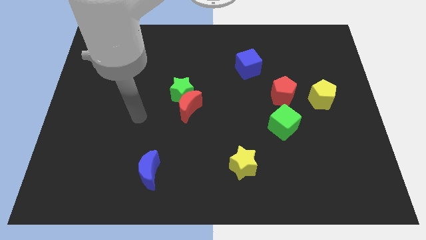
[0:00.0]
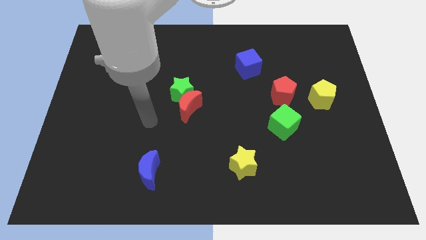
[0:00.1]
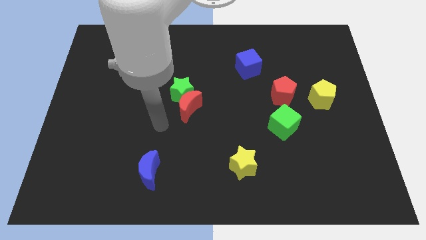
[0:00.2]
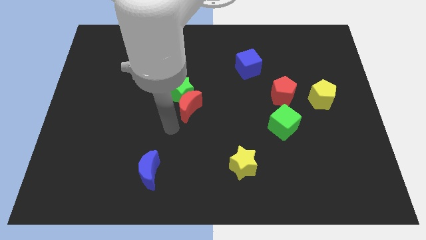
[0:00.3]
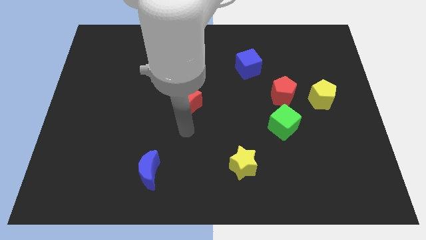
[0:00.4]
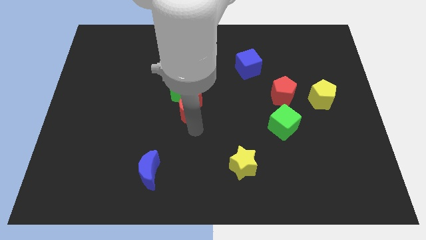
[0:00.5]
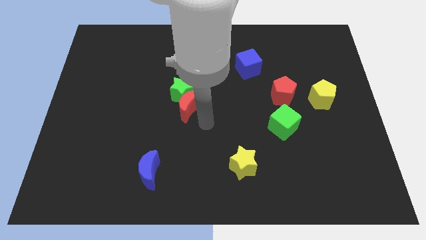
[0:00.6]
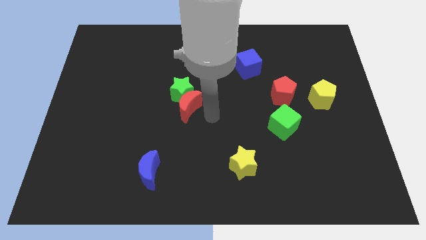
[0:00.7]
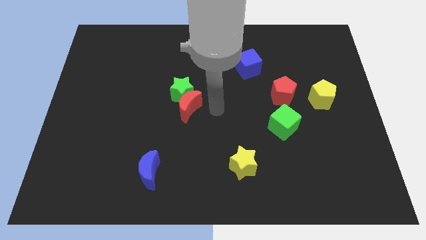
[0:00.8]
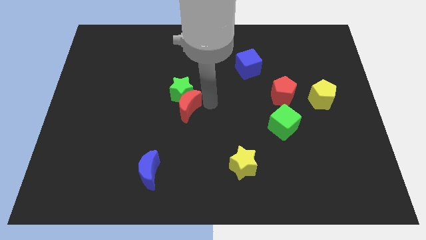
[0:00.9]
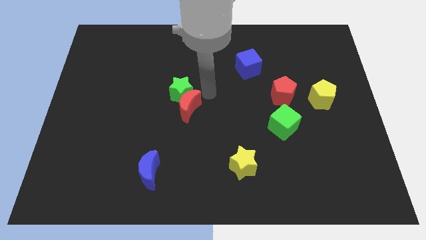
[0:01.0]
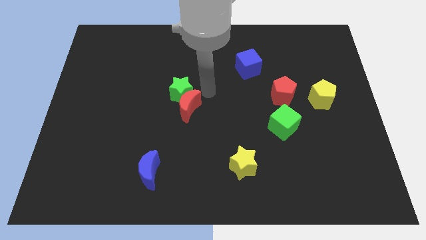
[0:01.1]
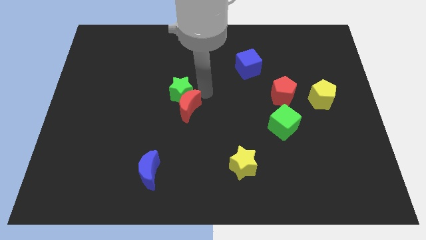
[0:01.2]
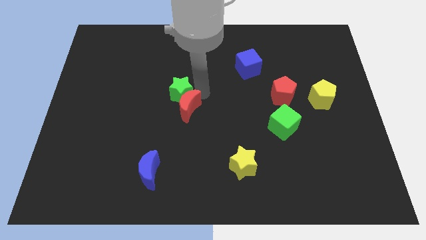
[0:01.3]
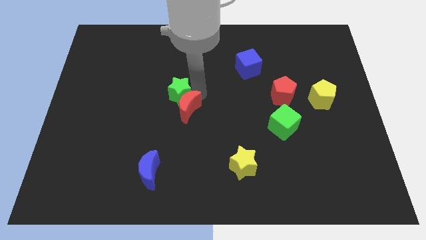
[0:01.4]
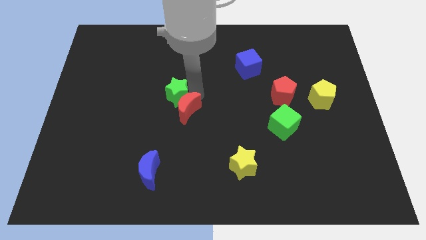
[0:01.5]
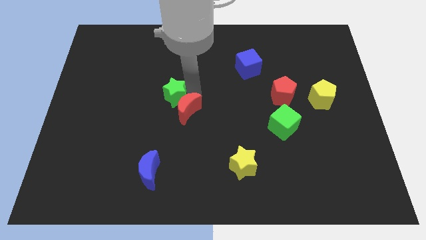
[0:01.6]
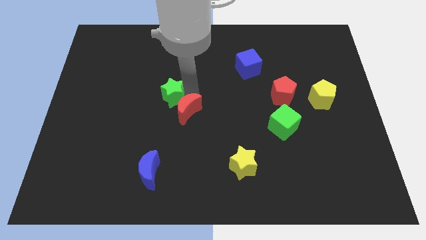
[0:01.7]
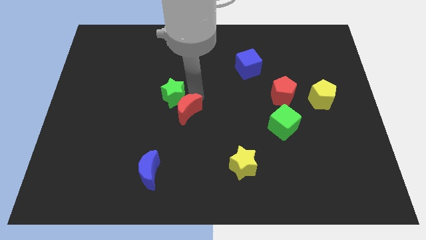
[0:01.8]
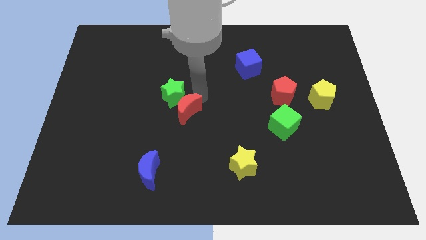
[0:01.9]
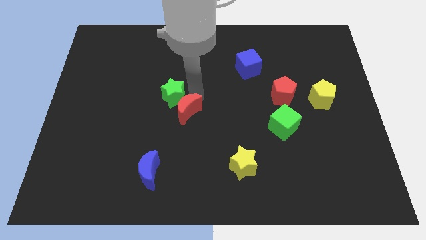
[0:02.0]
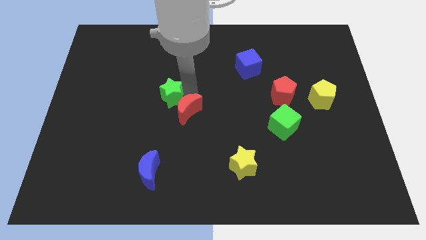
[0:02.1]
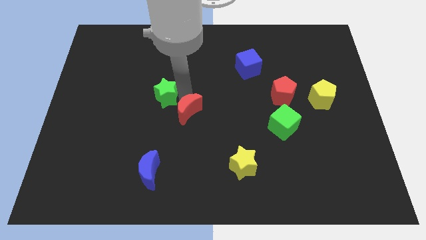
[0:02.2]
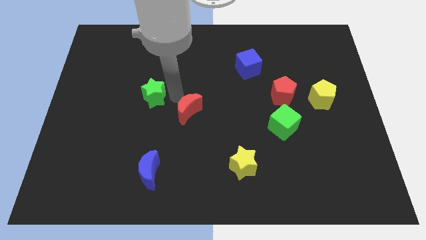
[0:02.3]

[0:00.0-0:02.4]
slide the green star slightly left

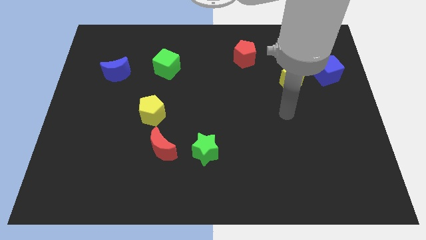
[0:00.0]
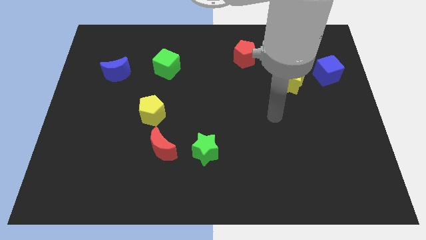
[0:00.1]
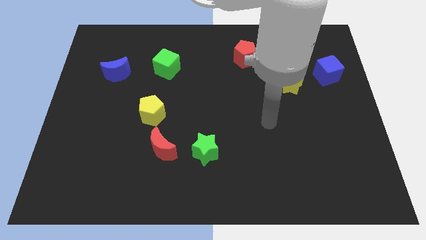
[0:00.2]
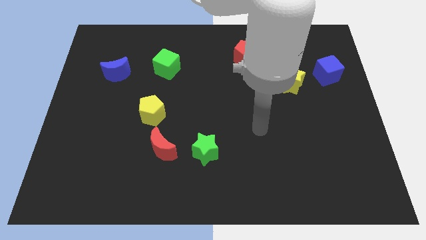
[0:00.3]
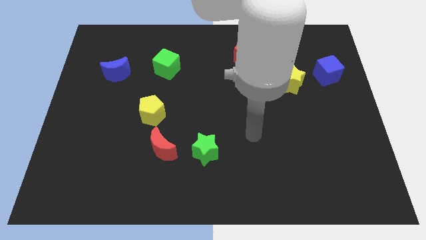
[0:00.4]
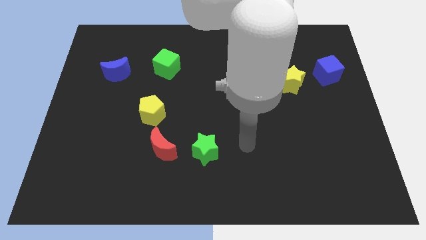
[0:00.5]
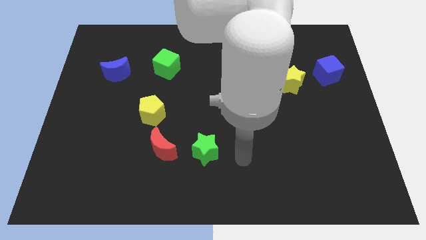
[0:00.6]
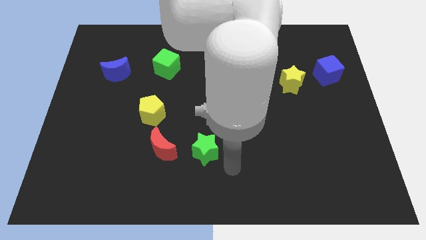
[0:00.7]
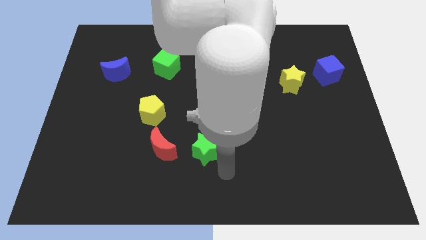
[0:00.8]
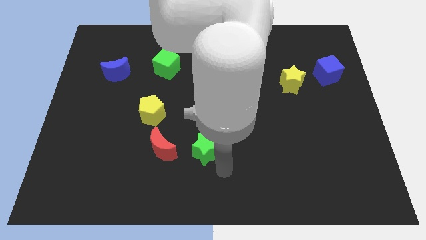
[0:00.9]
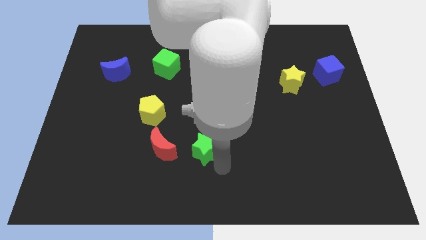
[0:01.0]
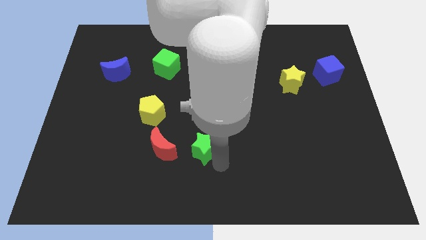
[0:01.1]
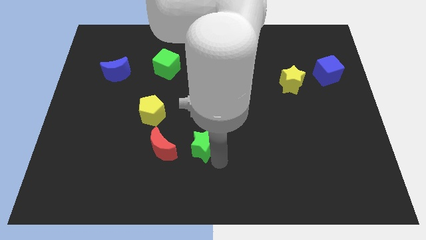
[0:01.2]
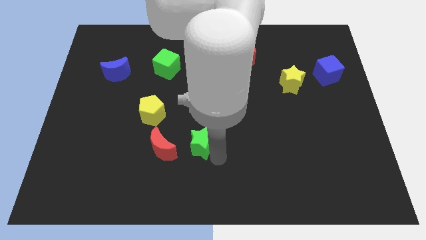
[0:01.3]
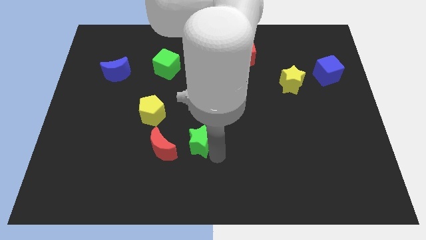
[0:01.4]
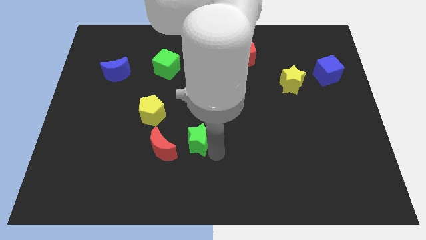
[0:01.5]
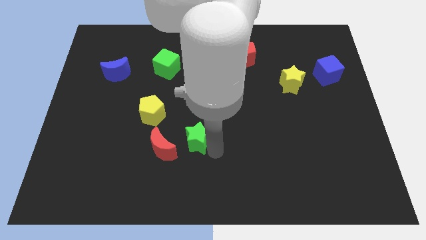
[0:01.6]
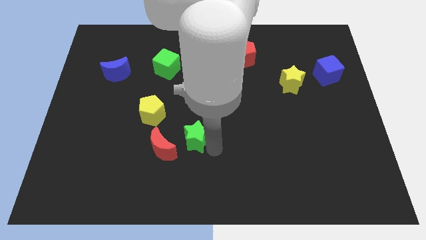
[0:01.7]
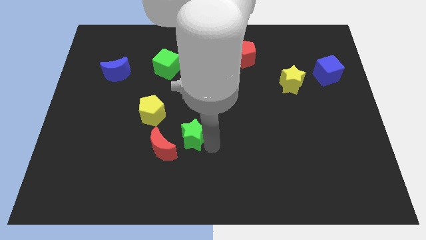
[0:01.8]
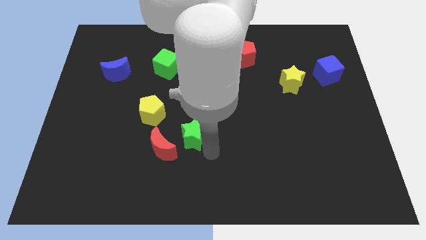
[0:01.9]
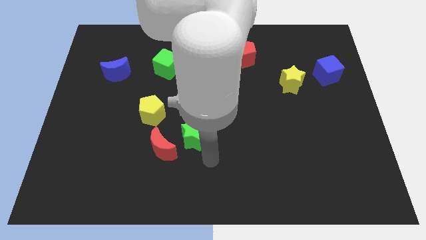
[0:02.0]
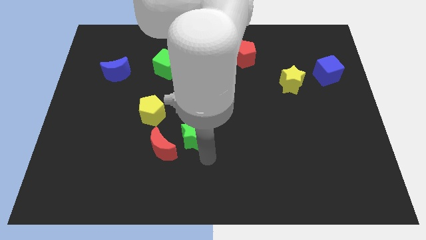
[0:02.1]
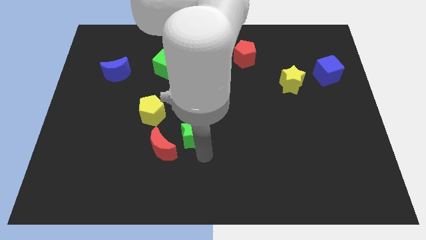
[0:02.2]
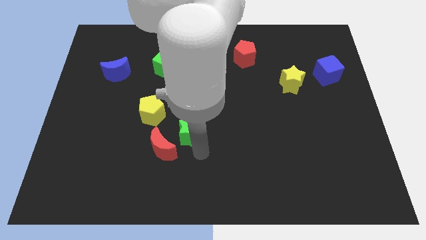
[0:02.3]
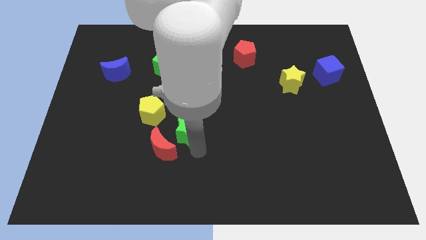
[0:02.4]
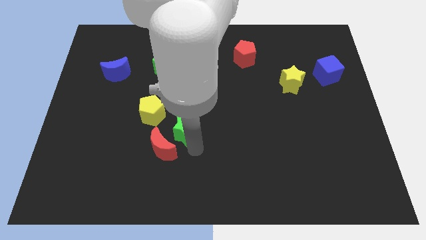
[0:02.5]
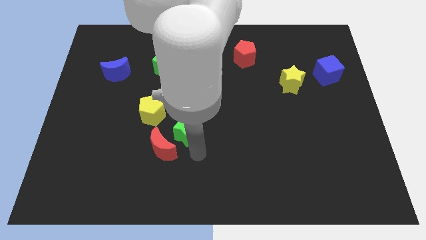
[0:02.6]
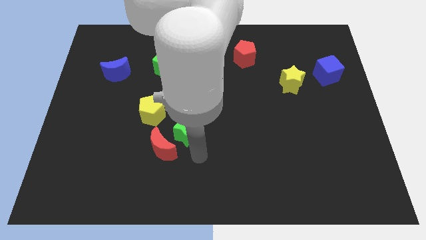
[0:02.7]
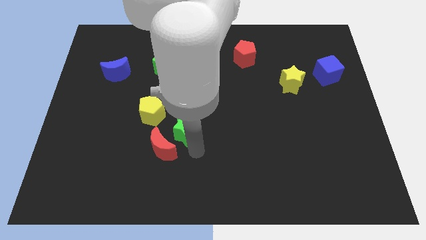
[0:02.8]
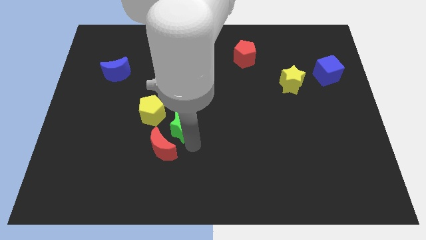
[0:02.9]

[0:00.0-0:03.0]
move the green star a little upwards and left

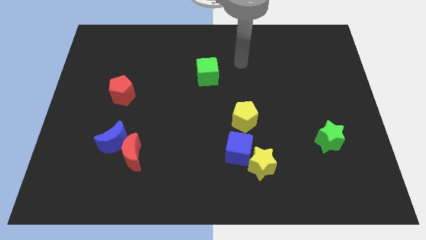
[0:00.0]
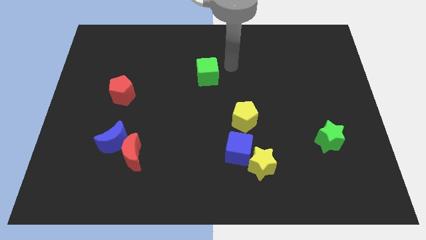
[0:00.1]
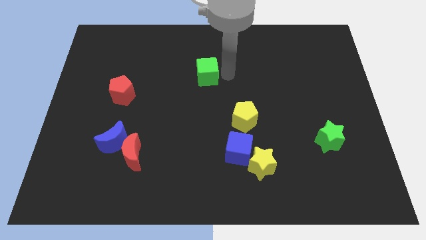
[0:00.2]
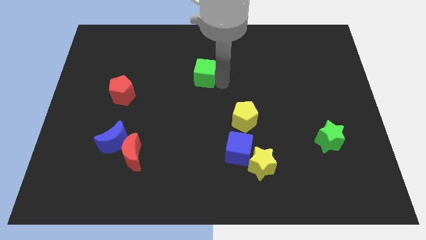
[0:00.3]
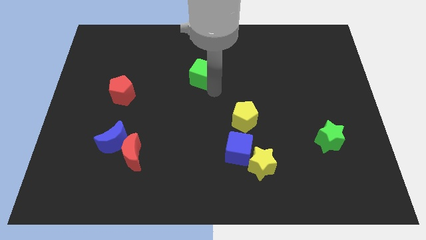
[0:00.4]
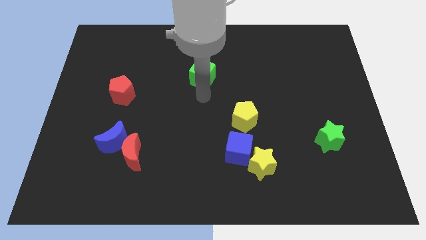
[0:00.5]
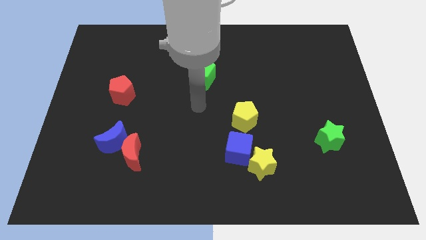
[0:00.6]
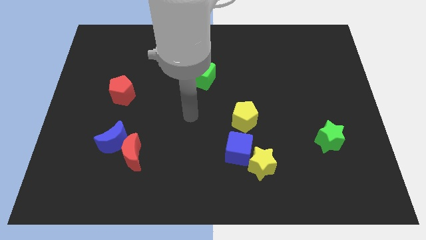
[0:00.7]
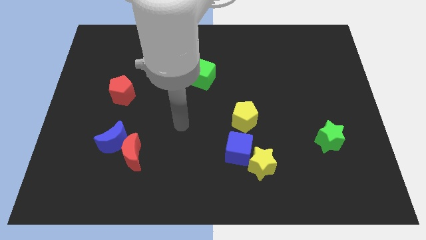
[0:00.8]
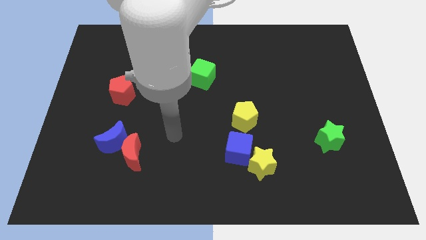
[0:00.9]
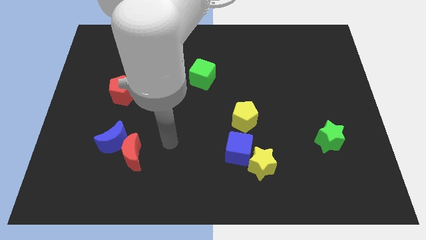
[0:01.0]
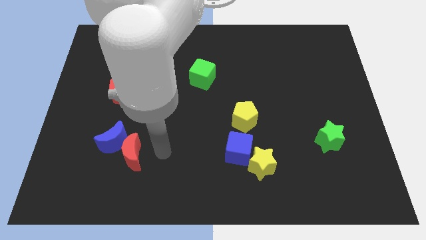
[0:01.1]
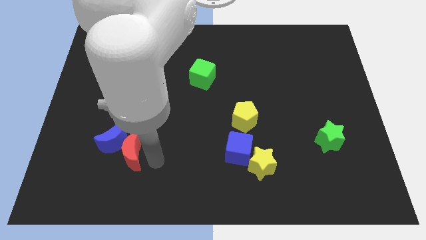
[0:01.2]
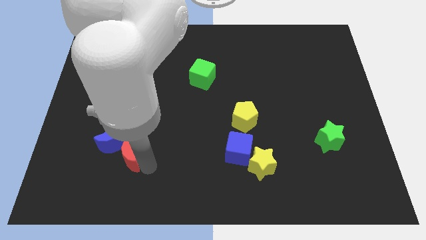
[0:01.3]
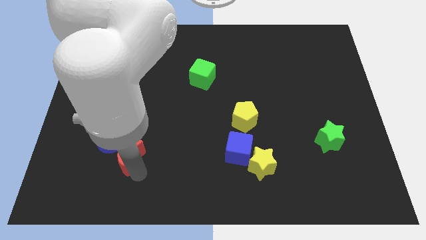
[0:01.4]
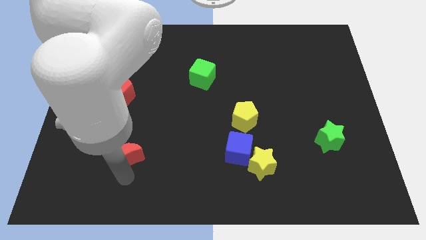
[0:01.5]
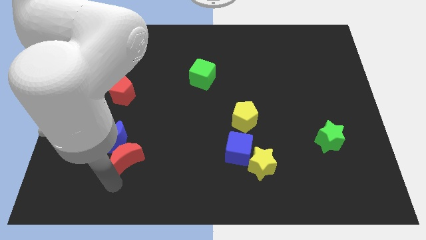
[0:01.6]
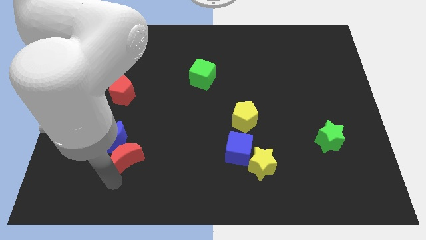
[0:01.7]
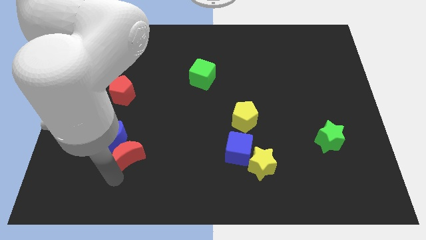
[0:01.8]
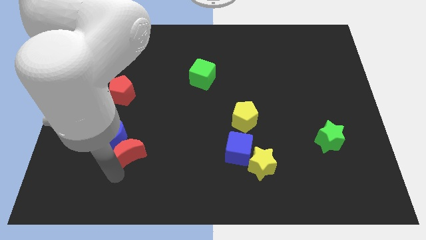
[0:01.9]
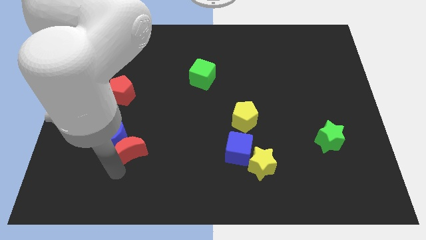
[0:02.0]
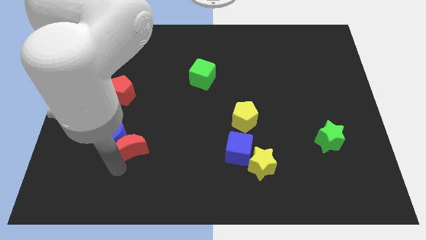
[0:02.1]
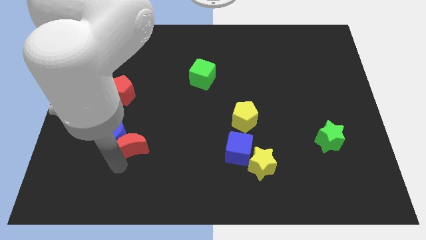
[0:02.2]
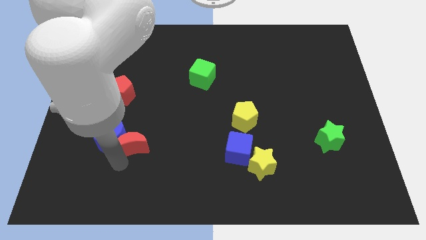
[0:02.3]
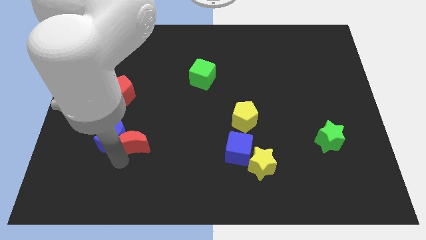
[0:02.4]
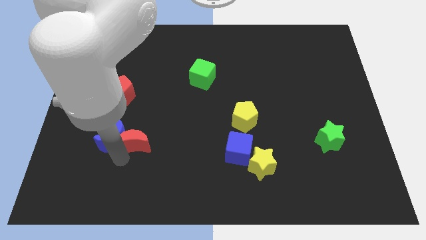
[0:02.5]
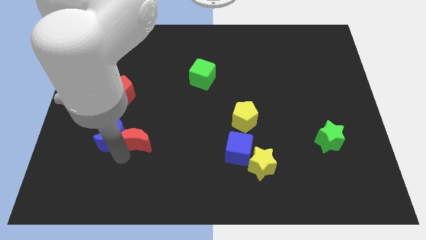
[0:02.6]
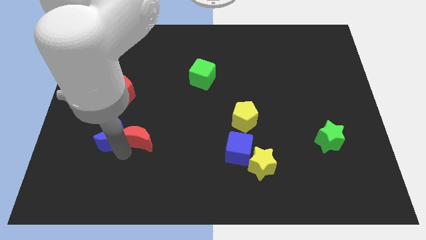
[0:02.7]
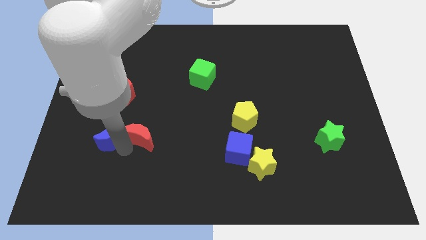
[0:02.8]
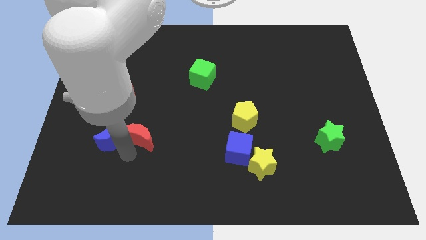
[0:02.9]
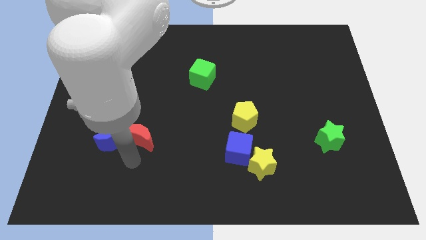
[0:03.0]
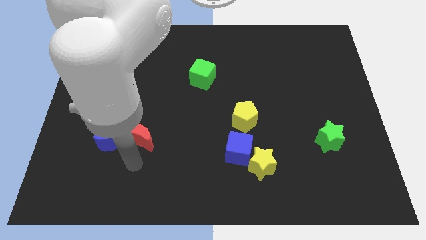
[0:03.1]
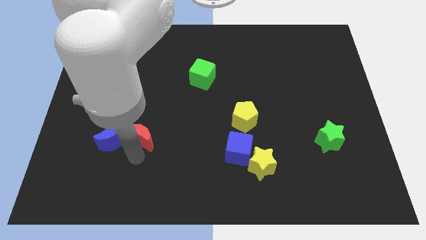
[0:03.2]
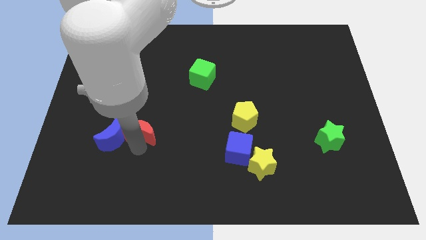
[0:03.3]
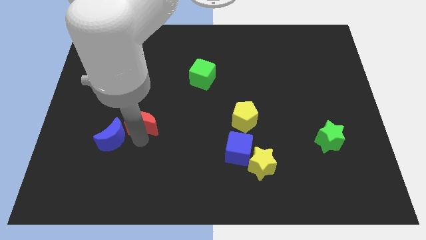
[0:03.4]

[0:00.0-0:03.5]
push the red moon somewhat upwards
